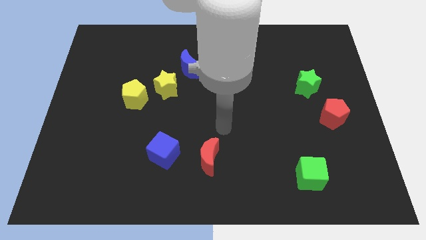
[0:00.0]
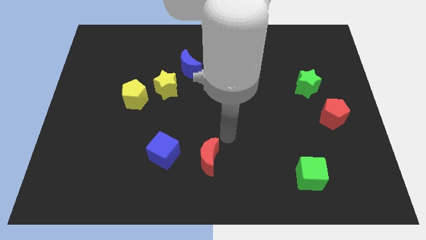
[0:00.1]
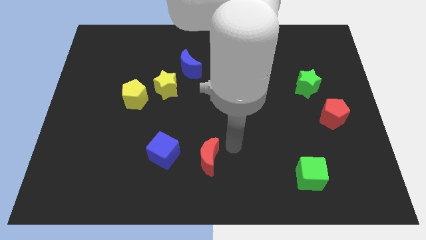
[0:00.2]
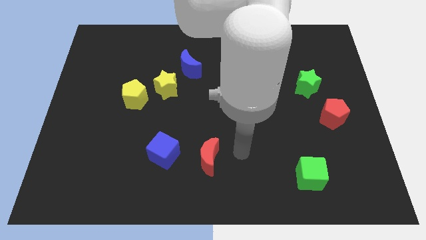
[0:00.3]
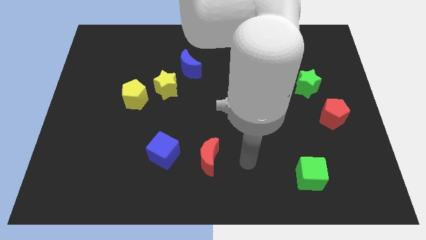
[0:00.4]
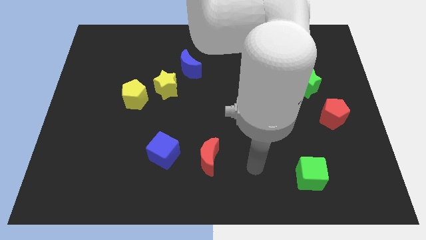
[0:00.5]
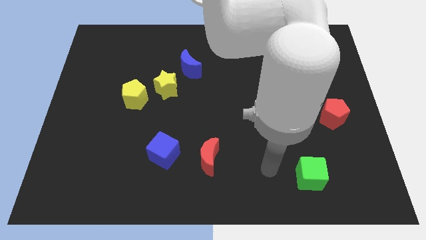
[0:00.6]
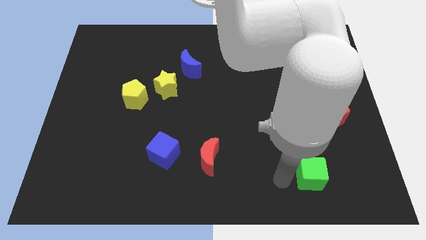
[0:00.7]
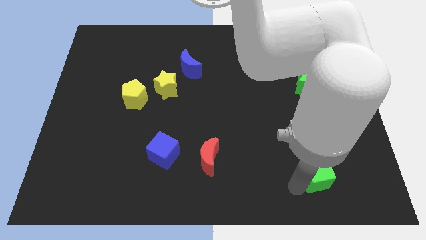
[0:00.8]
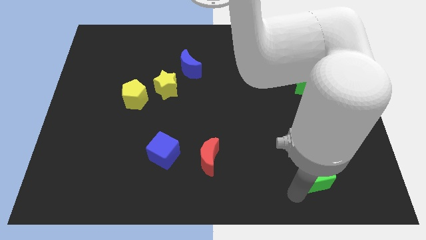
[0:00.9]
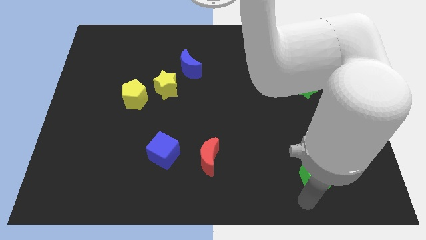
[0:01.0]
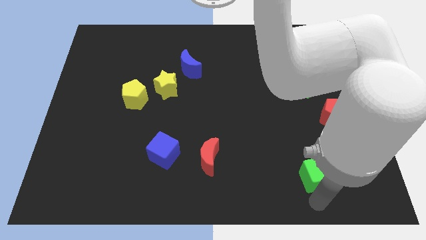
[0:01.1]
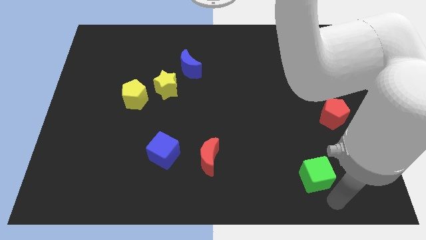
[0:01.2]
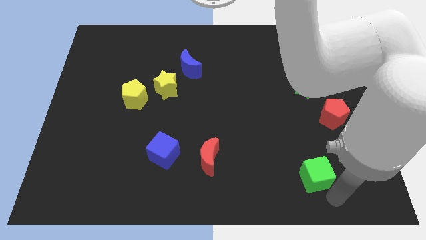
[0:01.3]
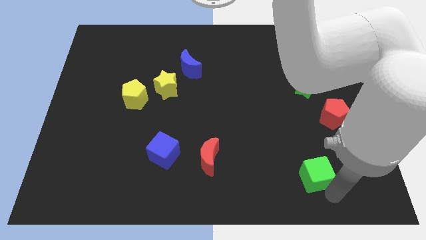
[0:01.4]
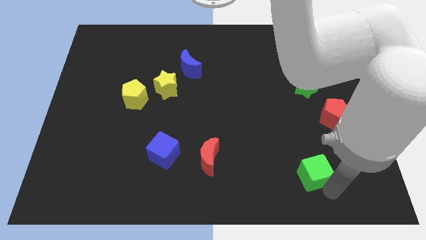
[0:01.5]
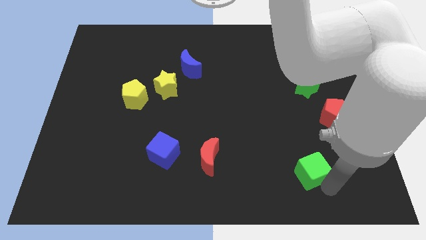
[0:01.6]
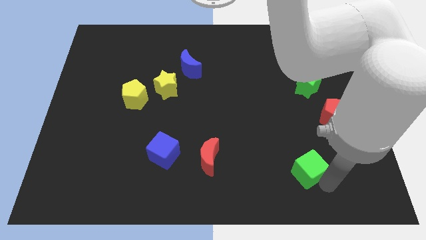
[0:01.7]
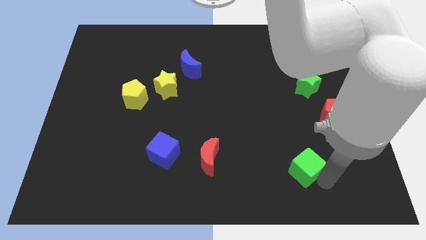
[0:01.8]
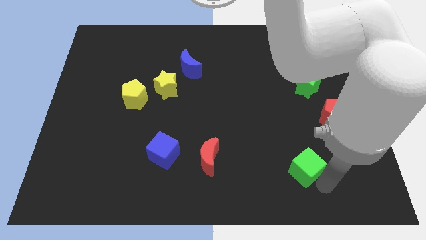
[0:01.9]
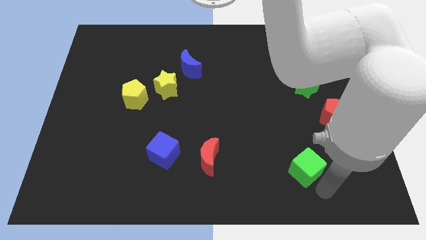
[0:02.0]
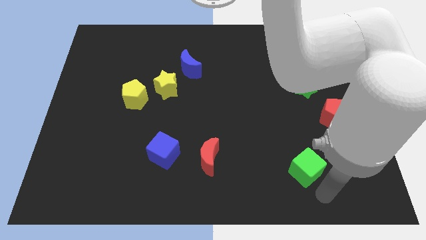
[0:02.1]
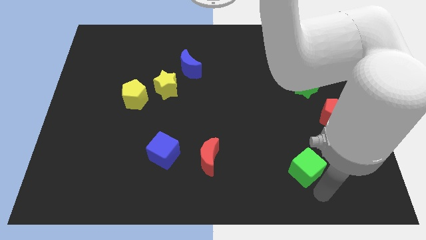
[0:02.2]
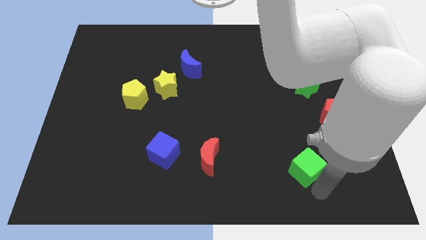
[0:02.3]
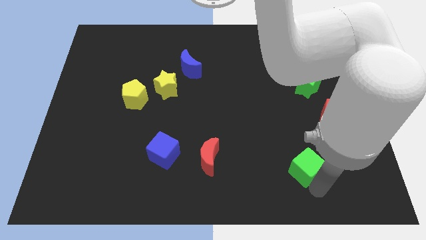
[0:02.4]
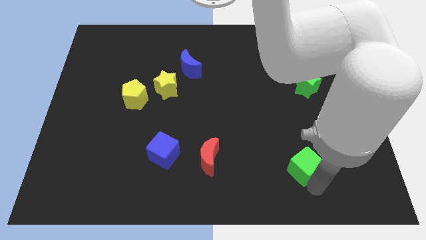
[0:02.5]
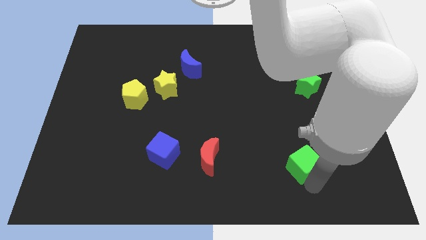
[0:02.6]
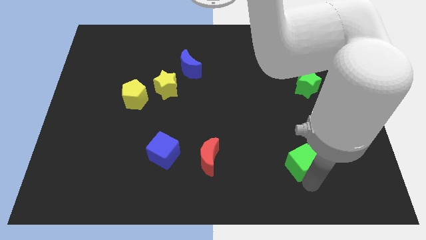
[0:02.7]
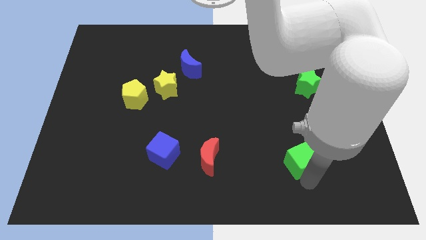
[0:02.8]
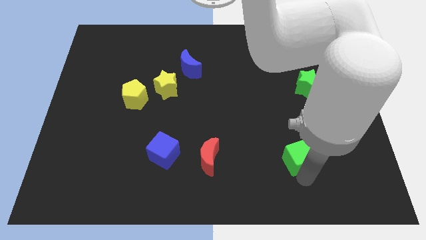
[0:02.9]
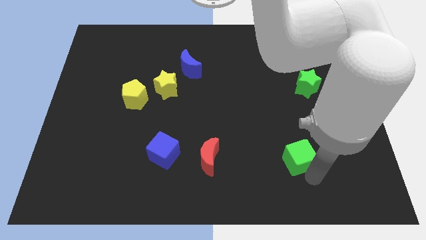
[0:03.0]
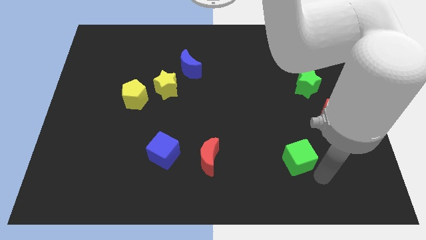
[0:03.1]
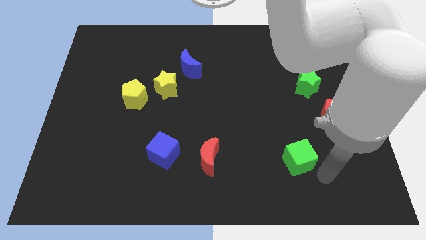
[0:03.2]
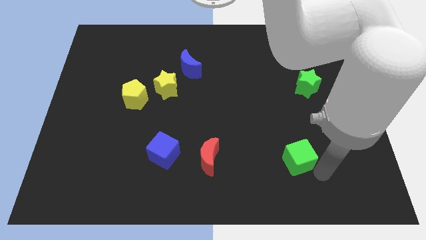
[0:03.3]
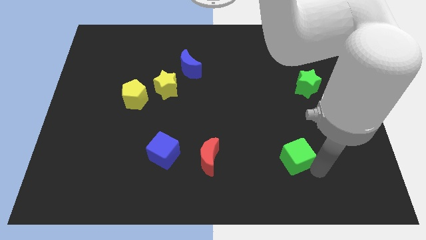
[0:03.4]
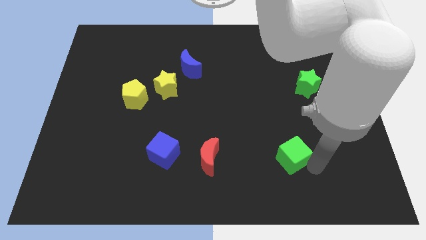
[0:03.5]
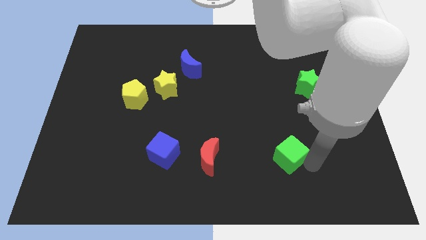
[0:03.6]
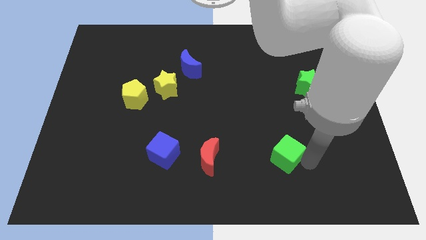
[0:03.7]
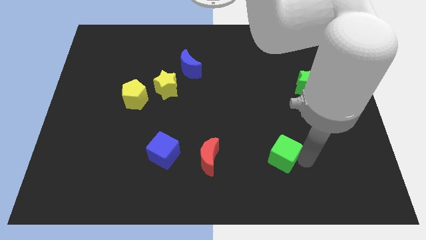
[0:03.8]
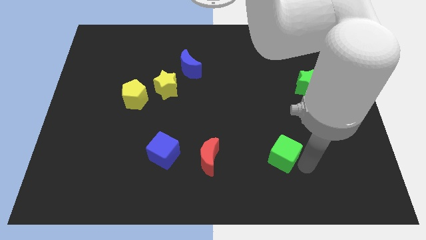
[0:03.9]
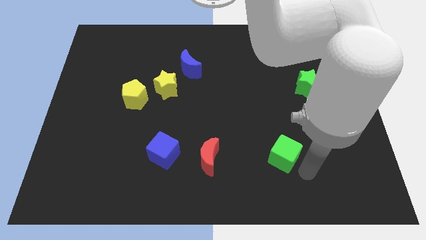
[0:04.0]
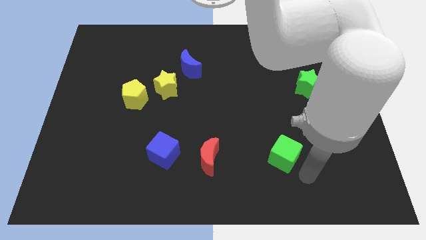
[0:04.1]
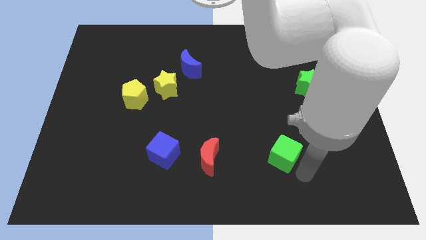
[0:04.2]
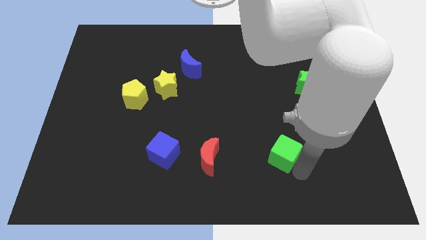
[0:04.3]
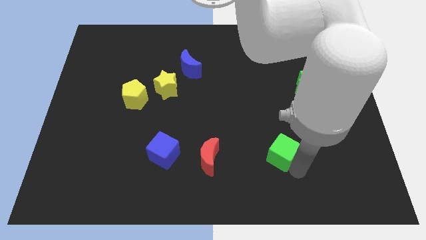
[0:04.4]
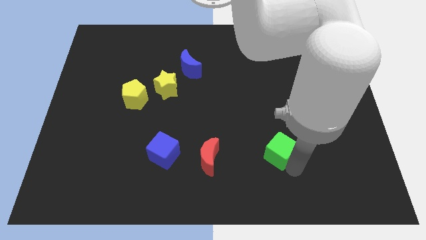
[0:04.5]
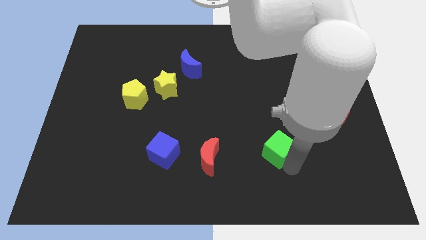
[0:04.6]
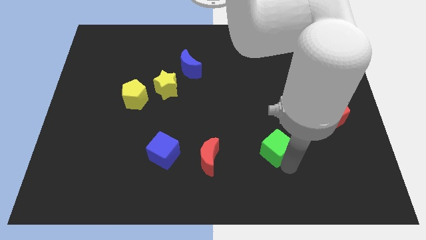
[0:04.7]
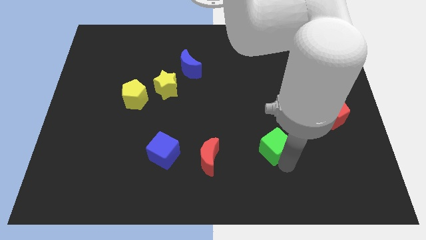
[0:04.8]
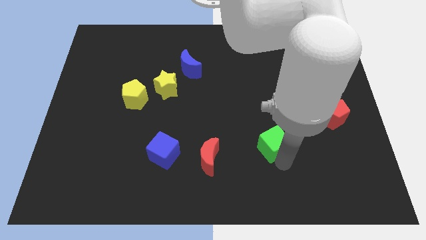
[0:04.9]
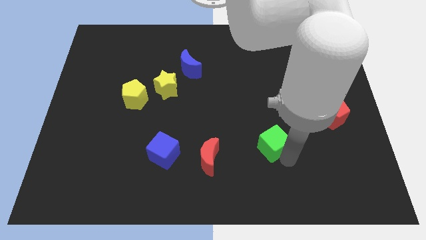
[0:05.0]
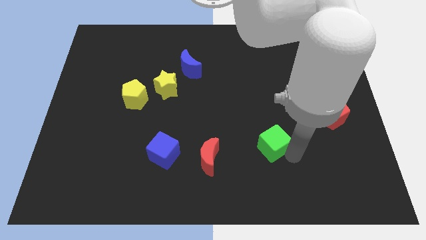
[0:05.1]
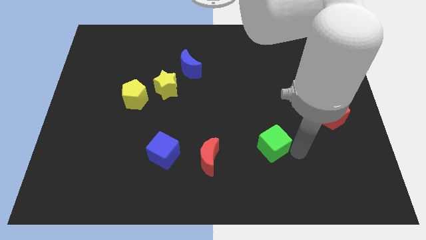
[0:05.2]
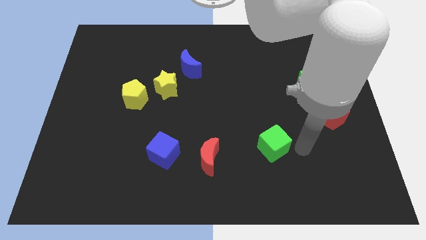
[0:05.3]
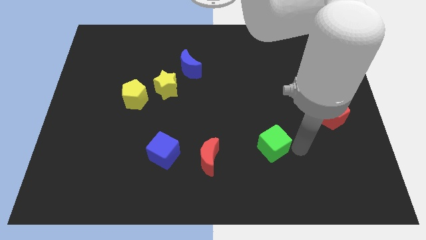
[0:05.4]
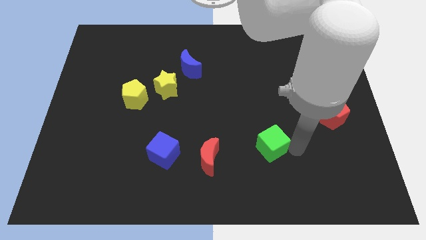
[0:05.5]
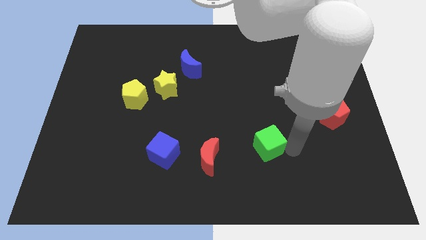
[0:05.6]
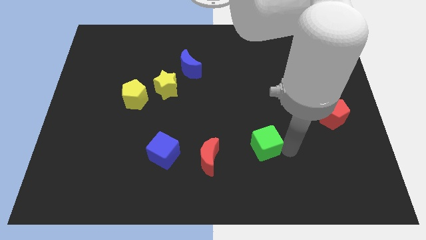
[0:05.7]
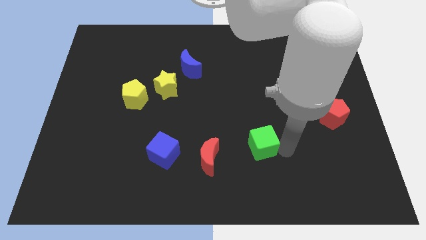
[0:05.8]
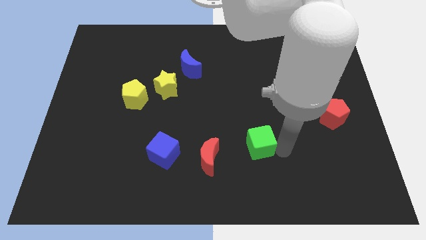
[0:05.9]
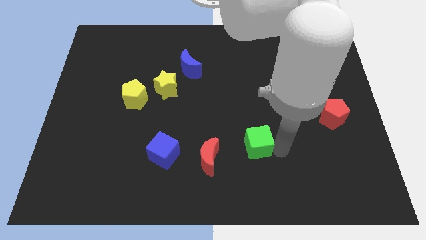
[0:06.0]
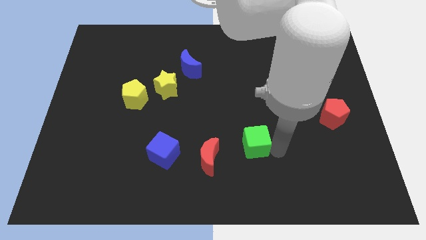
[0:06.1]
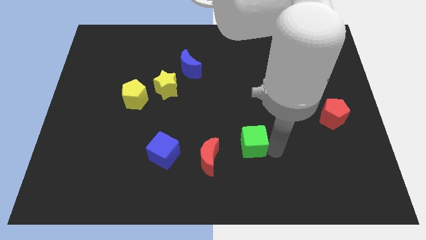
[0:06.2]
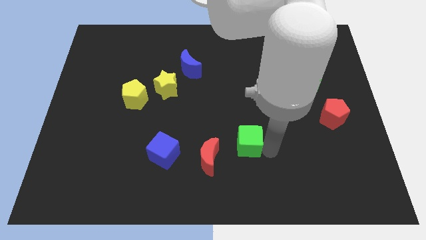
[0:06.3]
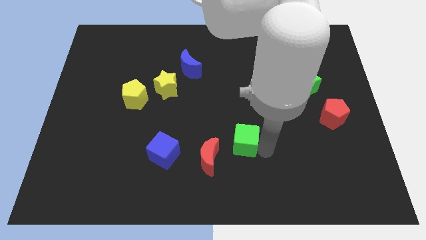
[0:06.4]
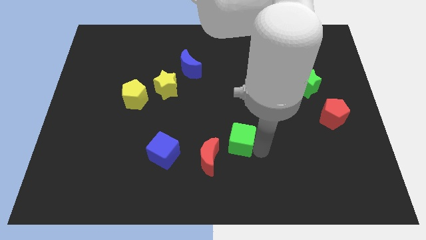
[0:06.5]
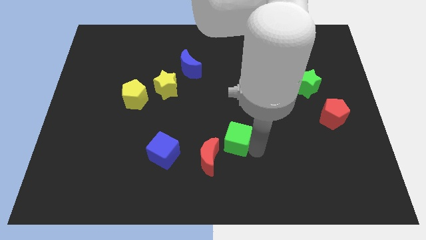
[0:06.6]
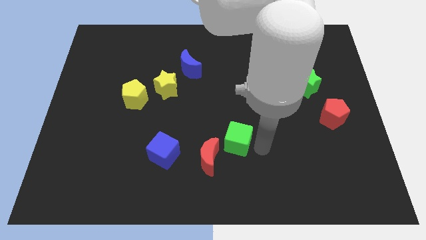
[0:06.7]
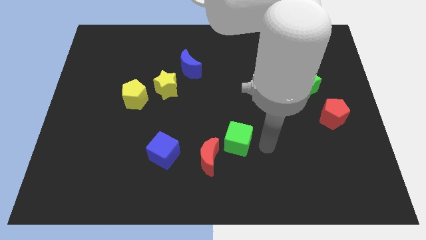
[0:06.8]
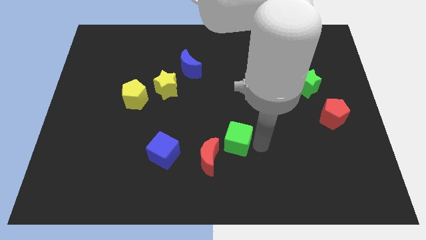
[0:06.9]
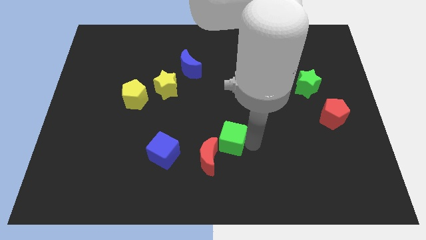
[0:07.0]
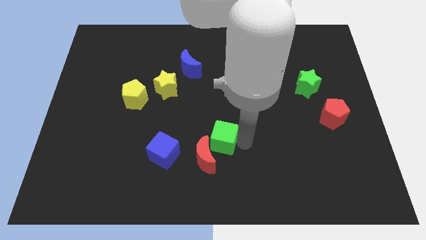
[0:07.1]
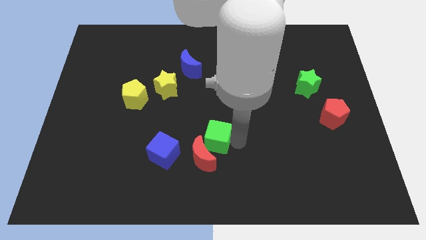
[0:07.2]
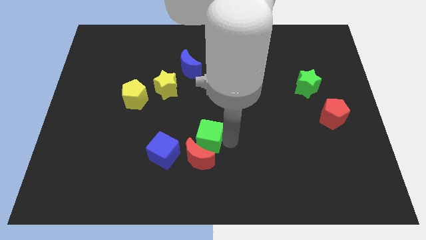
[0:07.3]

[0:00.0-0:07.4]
move the green cube to the top right side of the blue cube

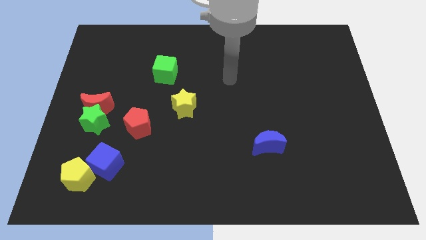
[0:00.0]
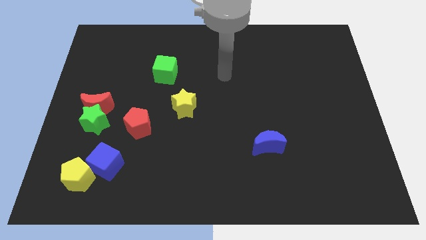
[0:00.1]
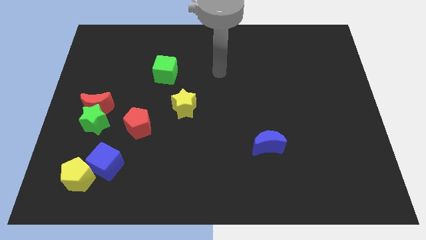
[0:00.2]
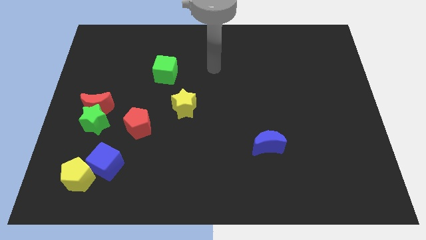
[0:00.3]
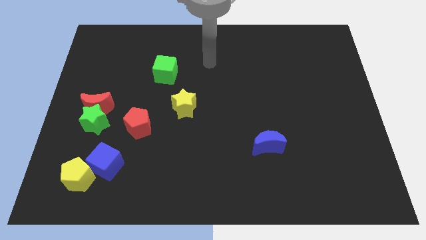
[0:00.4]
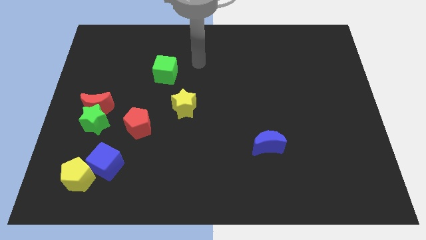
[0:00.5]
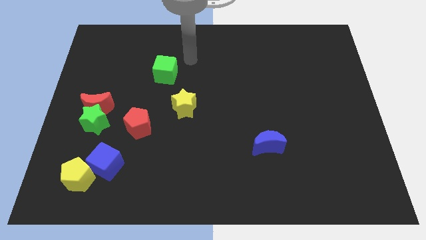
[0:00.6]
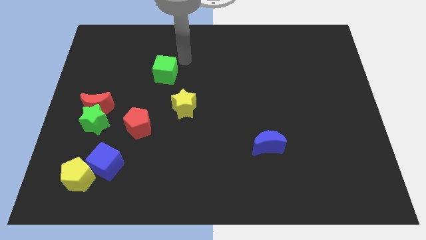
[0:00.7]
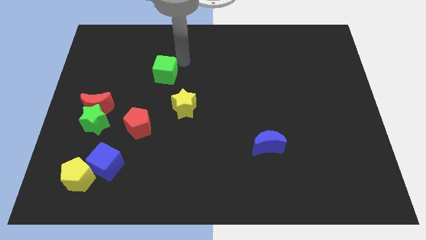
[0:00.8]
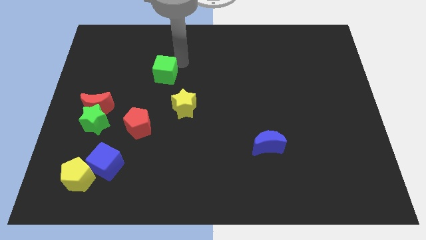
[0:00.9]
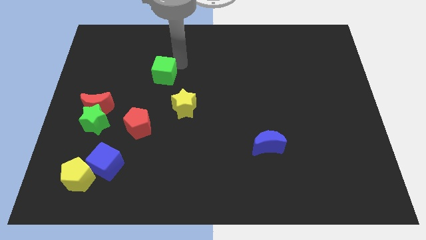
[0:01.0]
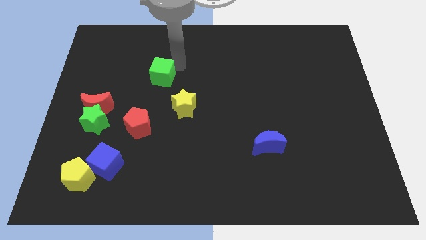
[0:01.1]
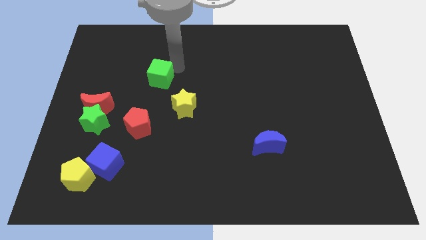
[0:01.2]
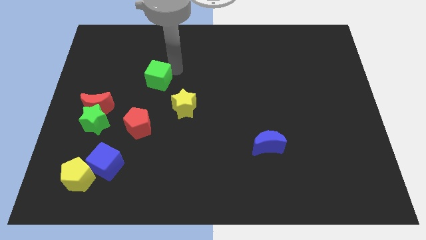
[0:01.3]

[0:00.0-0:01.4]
put the green cube to the top side of the red pentagon
